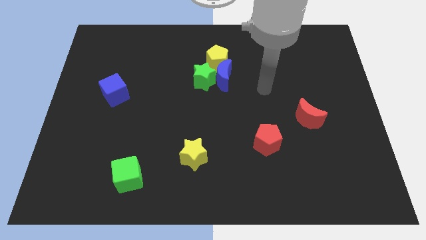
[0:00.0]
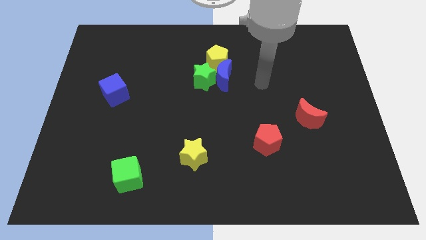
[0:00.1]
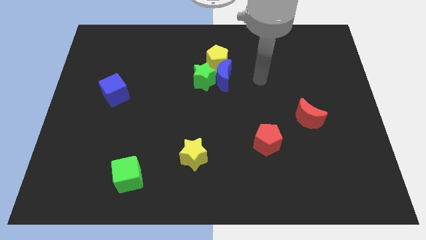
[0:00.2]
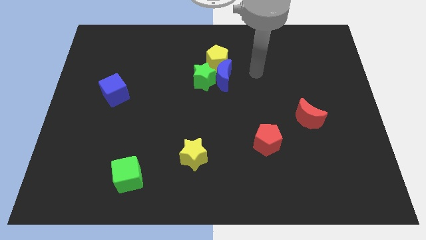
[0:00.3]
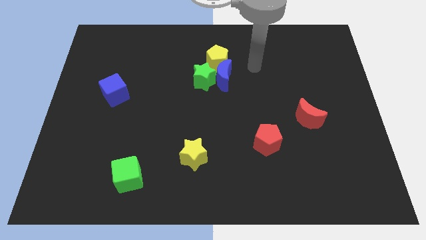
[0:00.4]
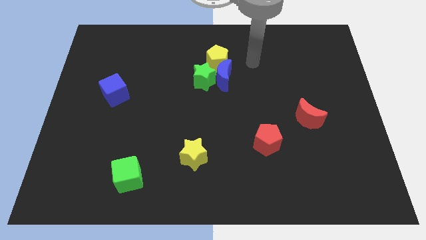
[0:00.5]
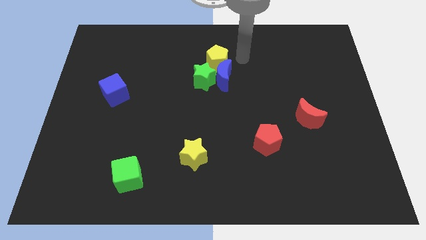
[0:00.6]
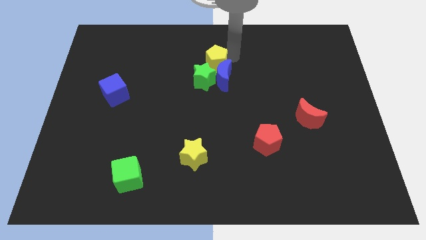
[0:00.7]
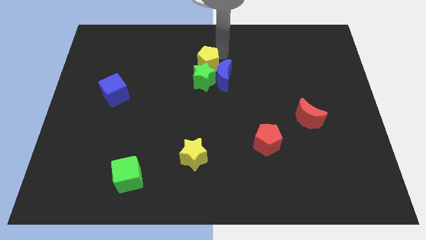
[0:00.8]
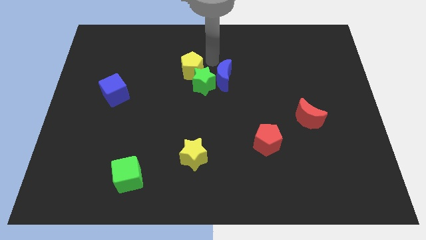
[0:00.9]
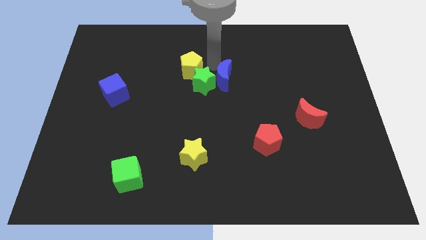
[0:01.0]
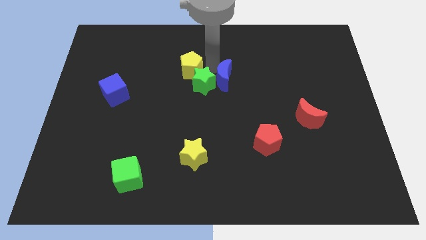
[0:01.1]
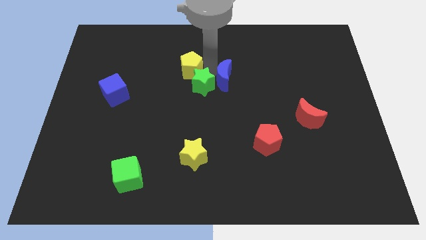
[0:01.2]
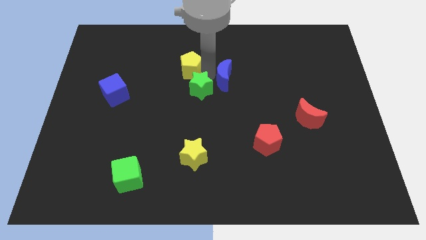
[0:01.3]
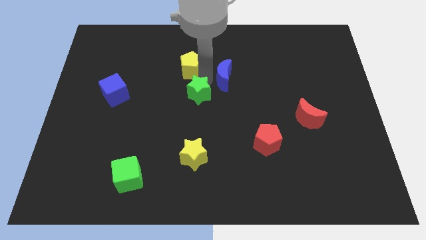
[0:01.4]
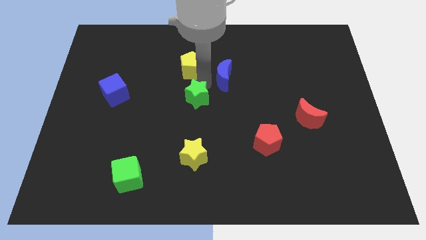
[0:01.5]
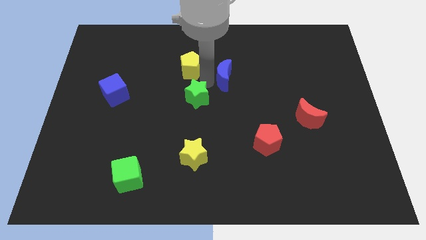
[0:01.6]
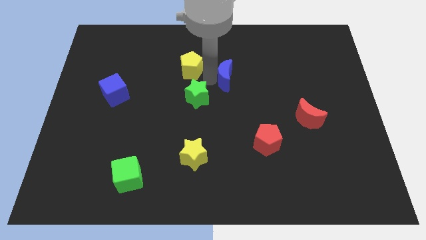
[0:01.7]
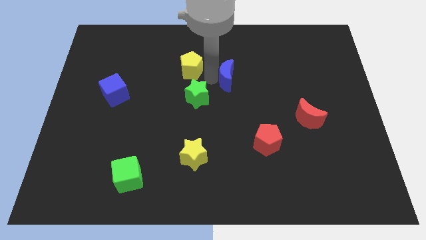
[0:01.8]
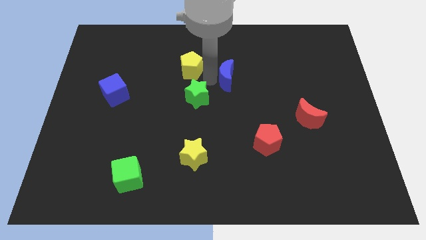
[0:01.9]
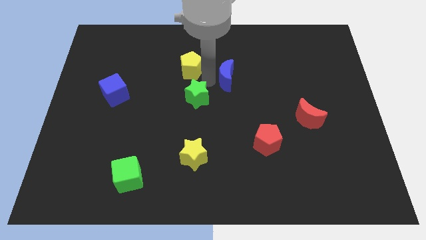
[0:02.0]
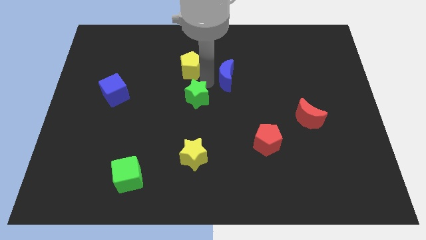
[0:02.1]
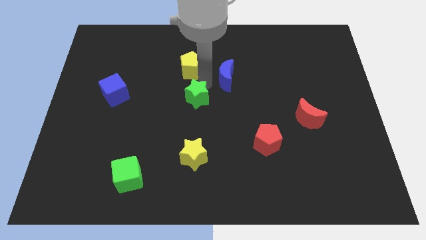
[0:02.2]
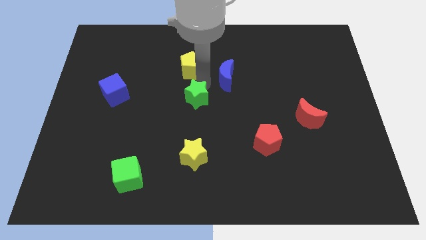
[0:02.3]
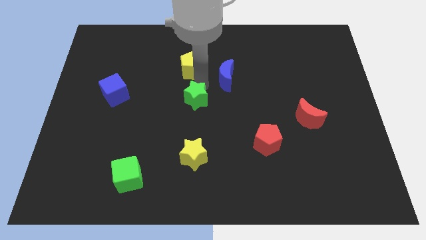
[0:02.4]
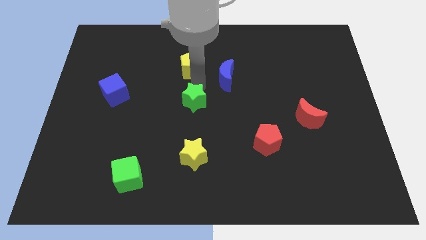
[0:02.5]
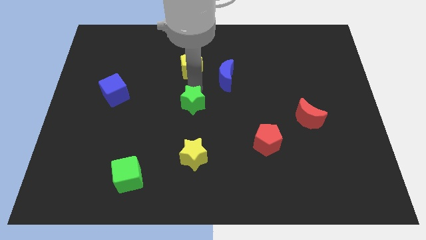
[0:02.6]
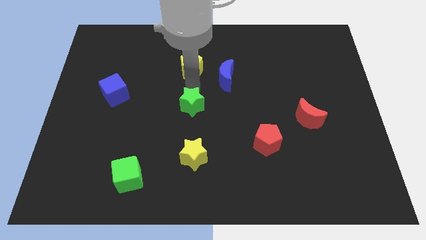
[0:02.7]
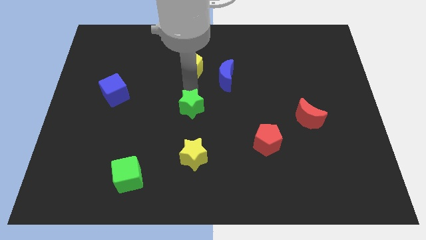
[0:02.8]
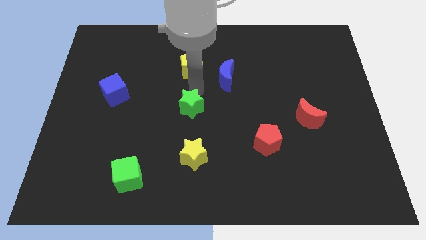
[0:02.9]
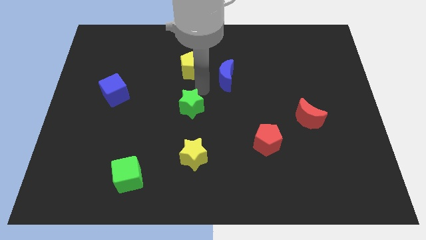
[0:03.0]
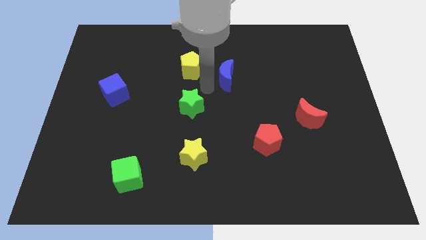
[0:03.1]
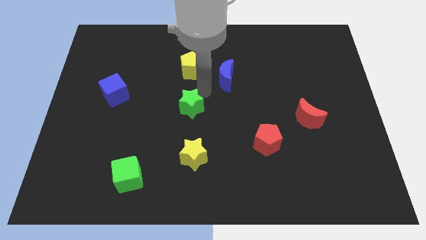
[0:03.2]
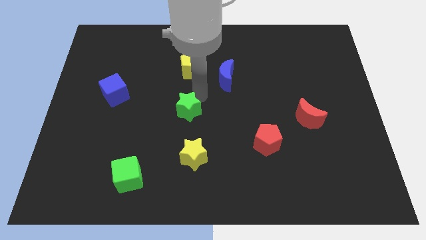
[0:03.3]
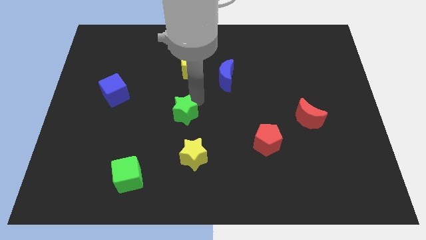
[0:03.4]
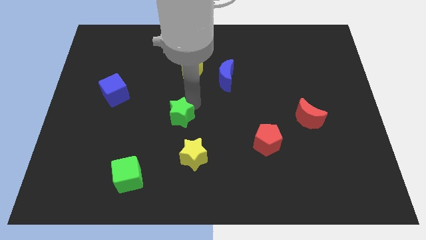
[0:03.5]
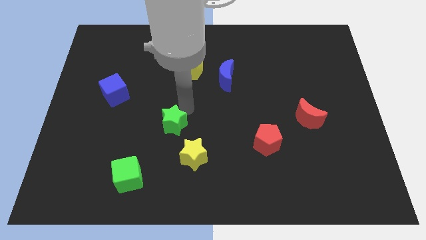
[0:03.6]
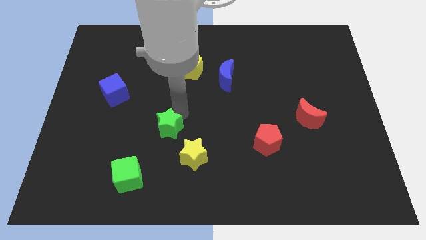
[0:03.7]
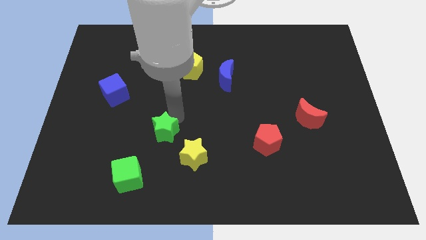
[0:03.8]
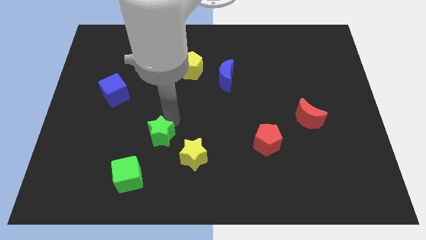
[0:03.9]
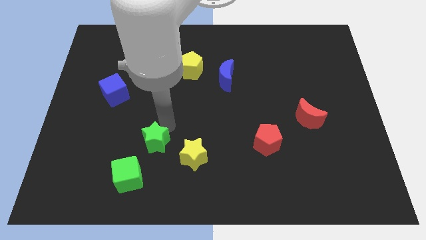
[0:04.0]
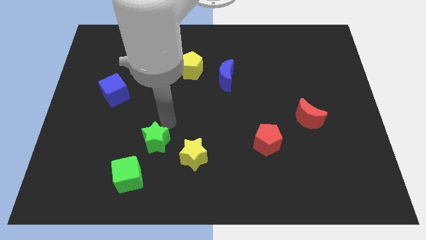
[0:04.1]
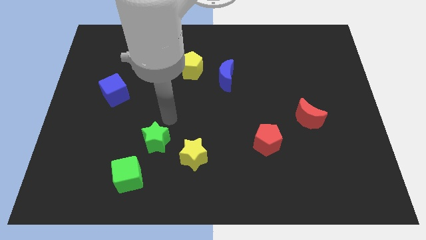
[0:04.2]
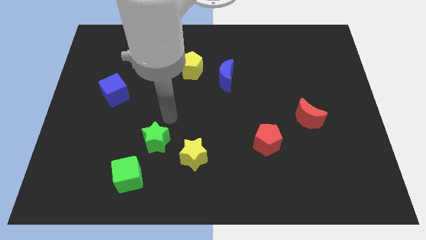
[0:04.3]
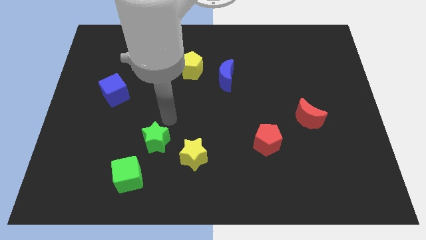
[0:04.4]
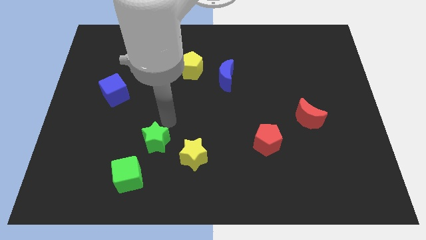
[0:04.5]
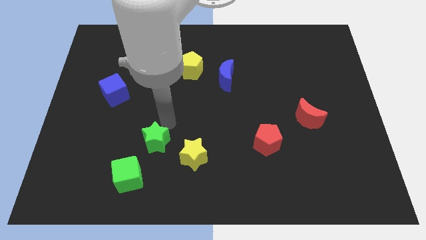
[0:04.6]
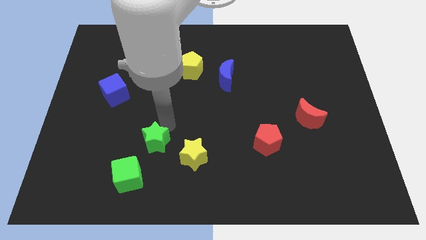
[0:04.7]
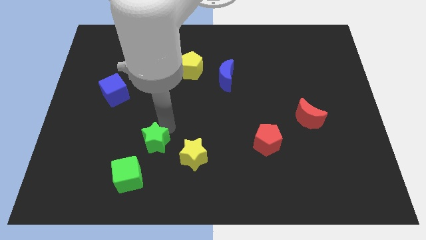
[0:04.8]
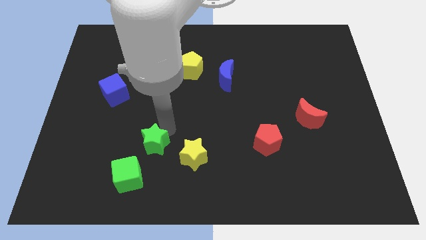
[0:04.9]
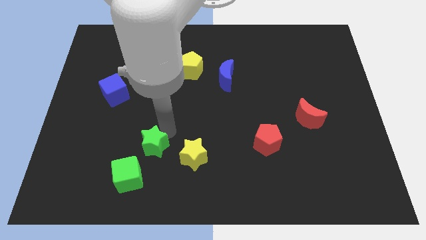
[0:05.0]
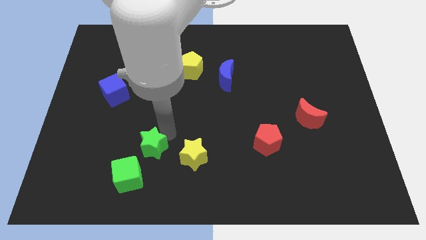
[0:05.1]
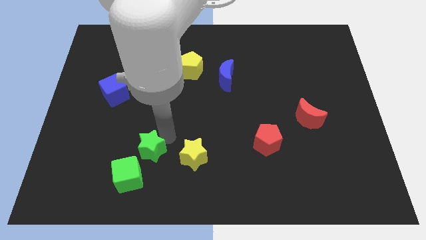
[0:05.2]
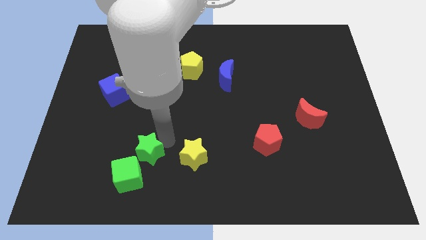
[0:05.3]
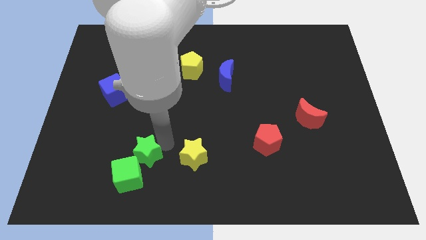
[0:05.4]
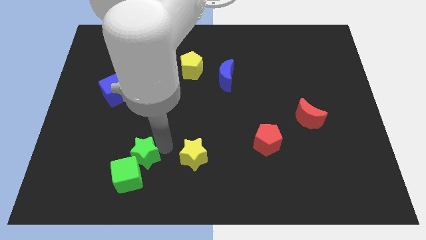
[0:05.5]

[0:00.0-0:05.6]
move the green star next to the green cube

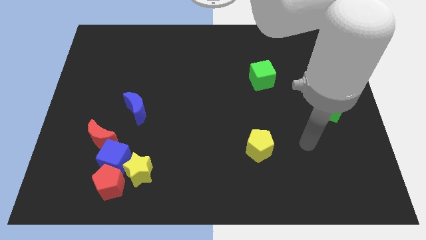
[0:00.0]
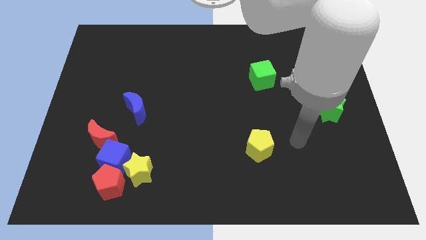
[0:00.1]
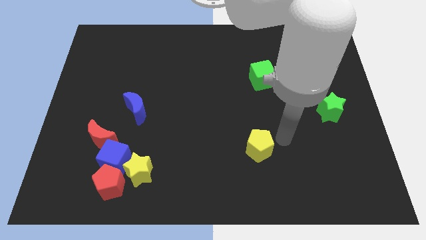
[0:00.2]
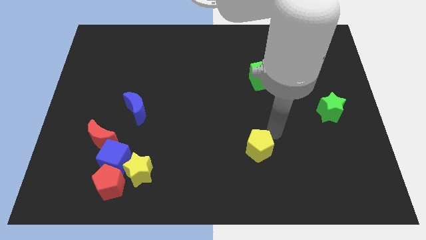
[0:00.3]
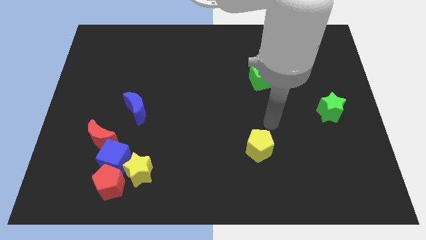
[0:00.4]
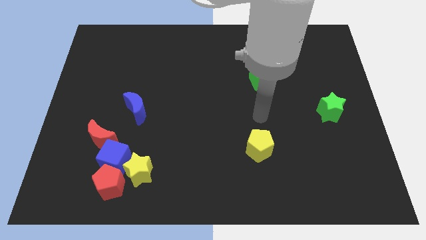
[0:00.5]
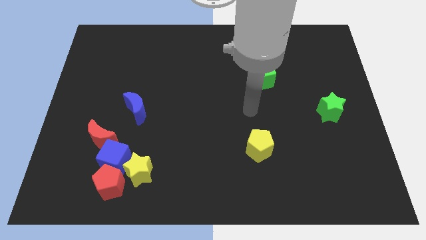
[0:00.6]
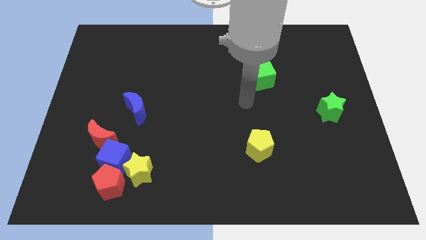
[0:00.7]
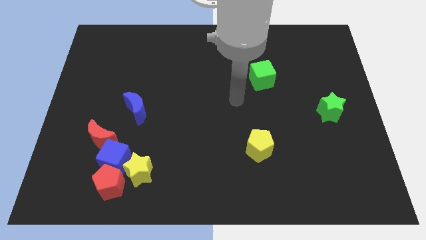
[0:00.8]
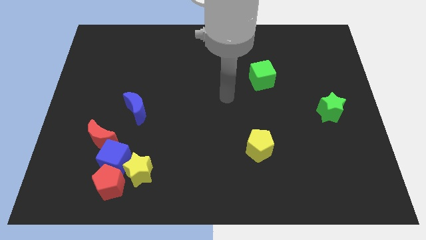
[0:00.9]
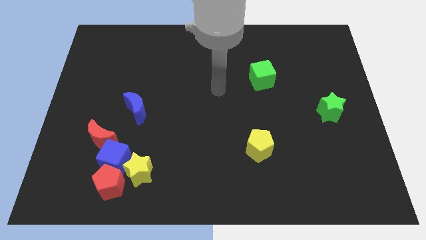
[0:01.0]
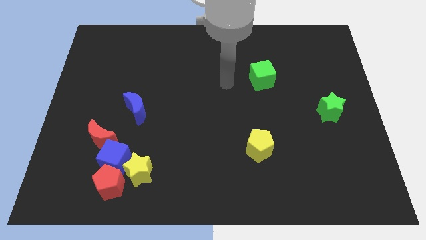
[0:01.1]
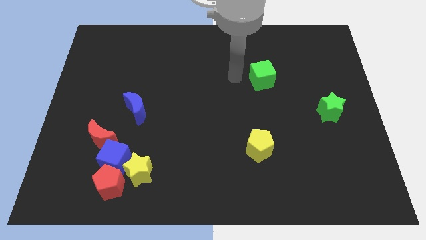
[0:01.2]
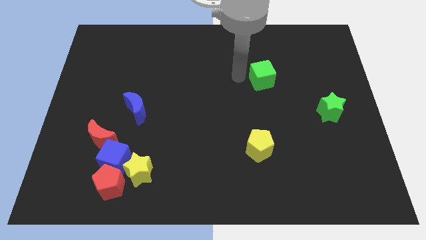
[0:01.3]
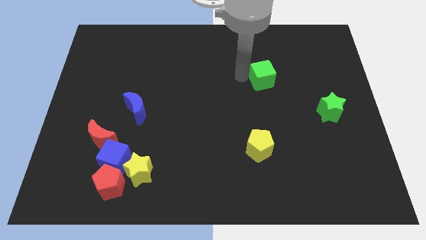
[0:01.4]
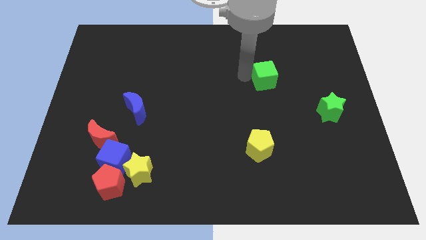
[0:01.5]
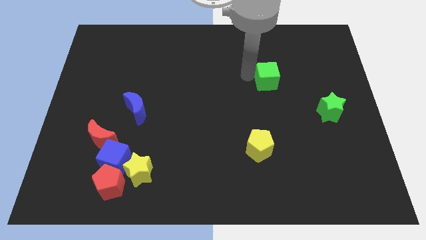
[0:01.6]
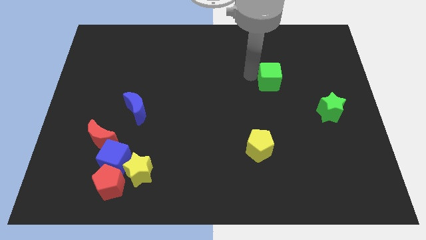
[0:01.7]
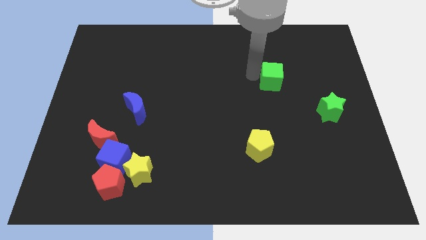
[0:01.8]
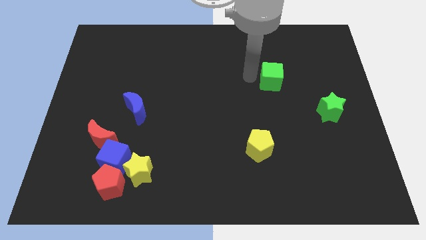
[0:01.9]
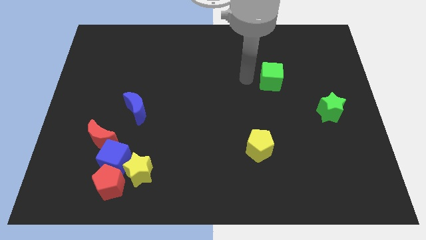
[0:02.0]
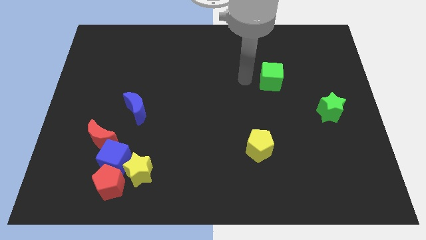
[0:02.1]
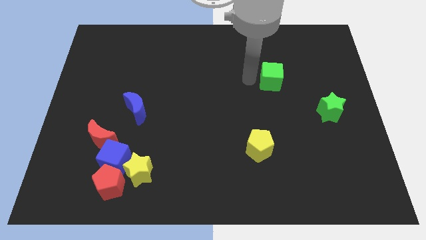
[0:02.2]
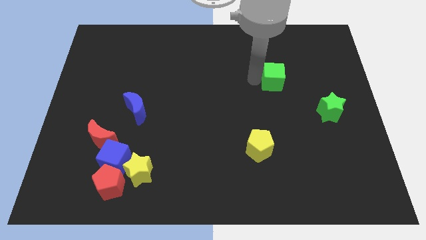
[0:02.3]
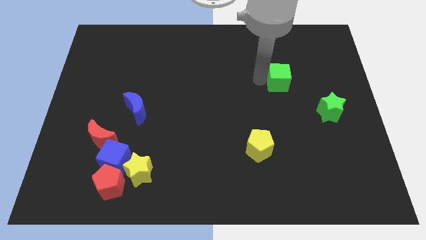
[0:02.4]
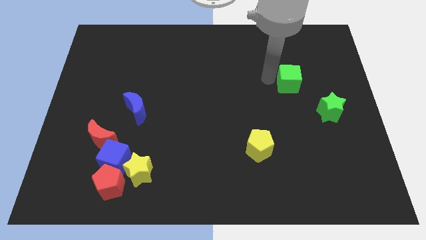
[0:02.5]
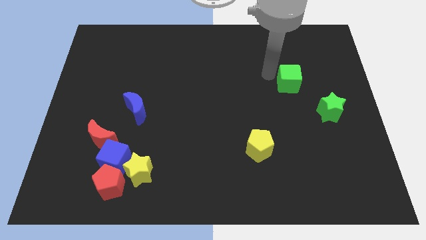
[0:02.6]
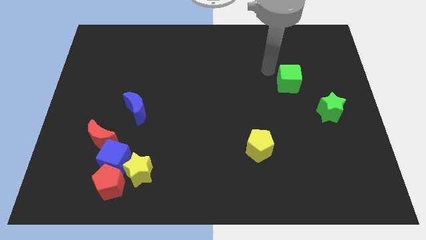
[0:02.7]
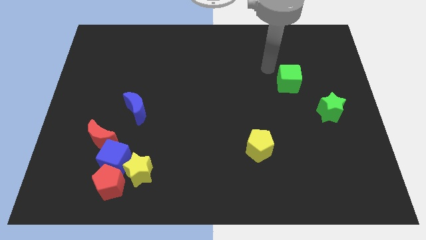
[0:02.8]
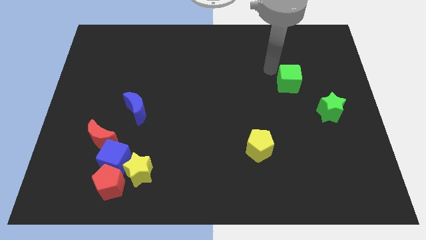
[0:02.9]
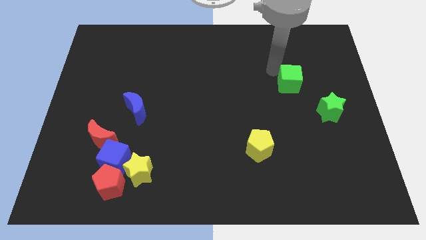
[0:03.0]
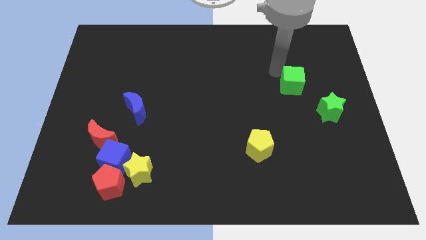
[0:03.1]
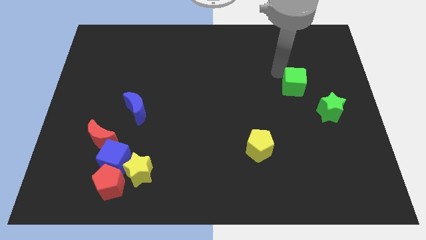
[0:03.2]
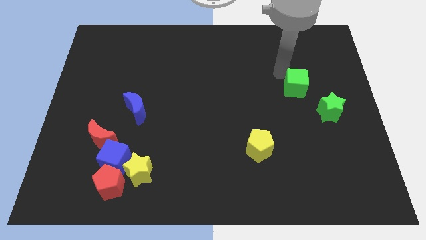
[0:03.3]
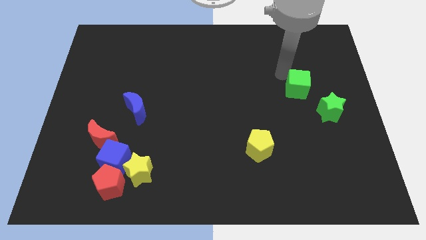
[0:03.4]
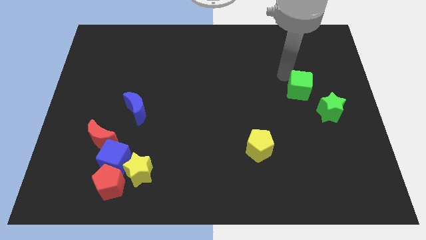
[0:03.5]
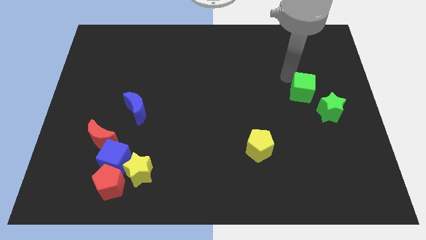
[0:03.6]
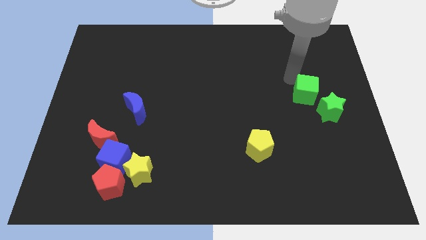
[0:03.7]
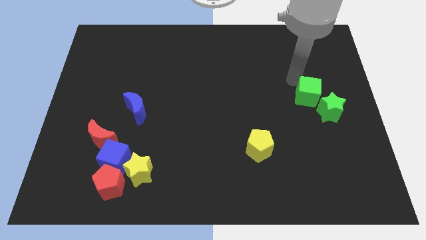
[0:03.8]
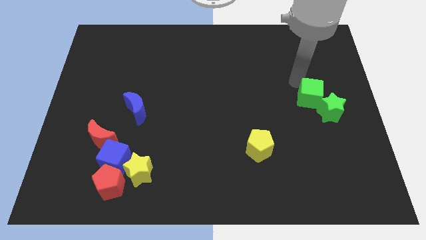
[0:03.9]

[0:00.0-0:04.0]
push the green cube towards the green star
